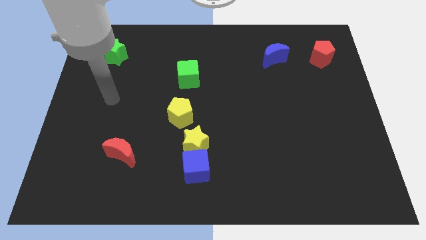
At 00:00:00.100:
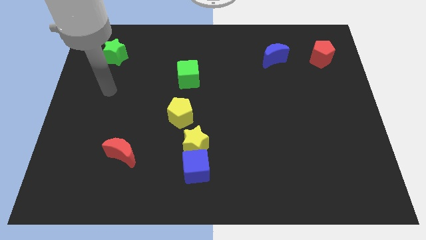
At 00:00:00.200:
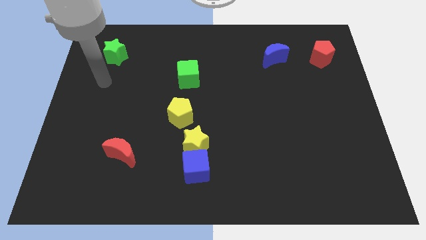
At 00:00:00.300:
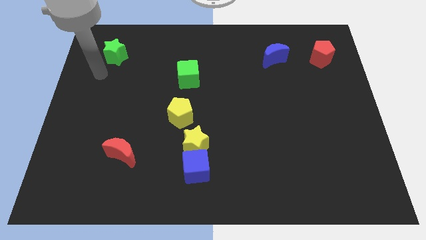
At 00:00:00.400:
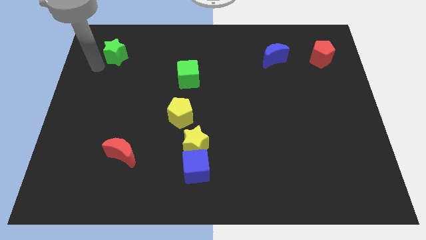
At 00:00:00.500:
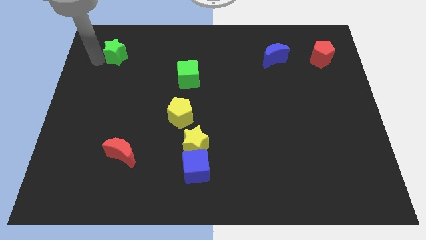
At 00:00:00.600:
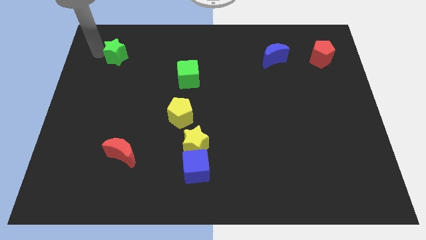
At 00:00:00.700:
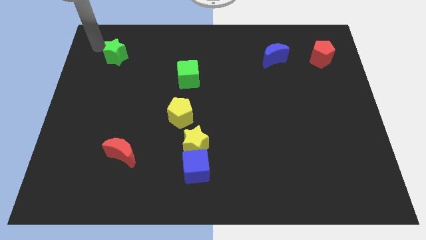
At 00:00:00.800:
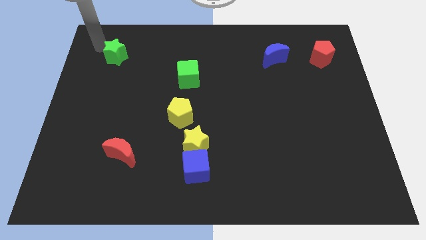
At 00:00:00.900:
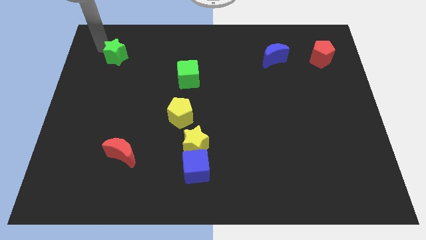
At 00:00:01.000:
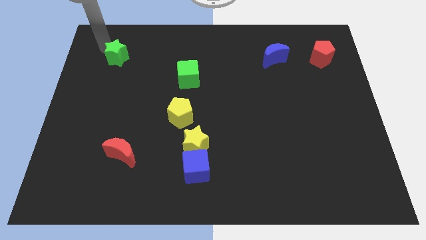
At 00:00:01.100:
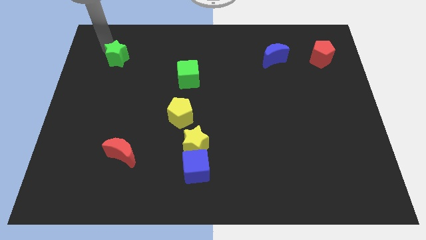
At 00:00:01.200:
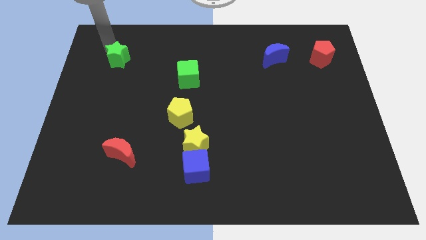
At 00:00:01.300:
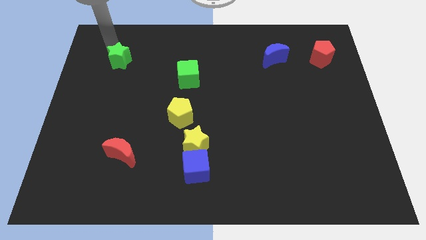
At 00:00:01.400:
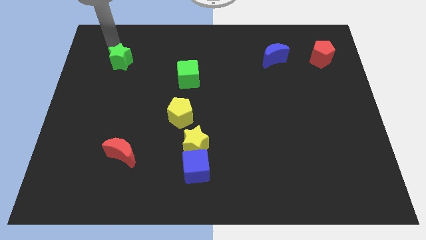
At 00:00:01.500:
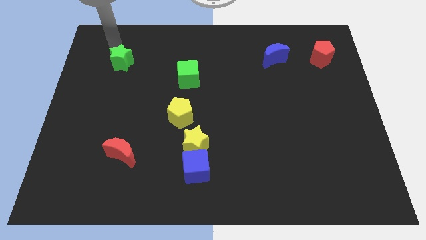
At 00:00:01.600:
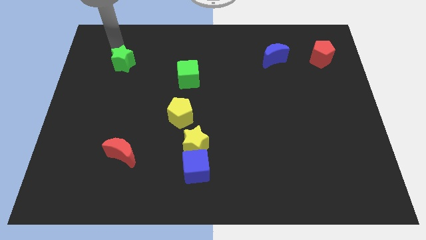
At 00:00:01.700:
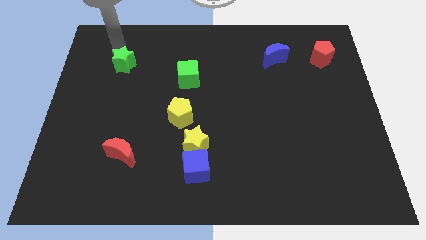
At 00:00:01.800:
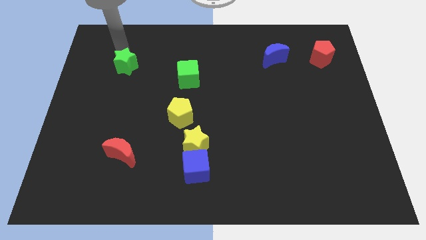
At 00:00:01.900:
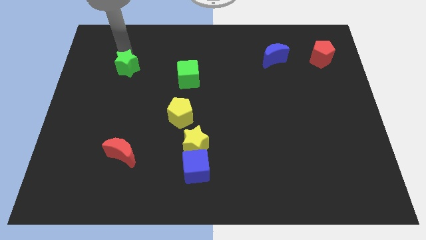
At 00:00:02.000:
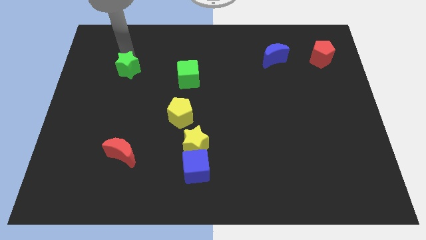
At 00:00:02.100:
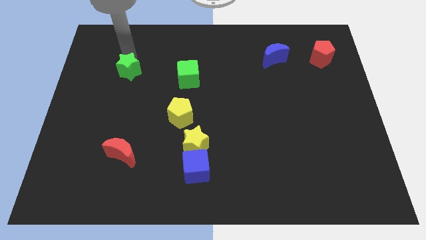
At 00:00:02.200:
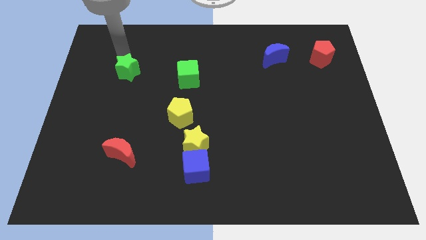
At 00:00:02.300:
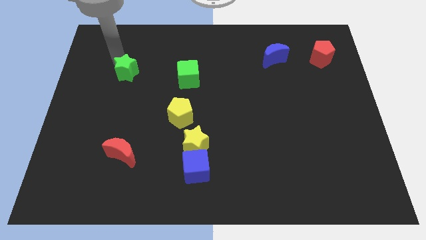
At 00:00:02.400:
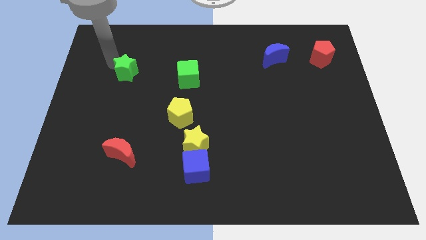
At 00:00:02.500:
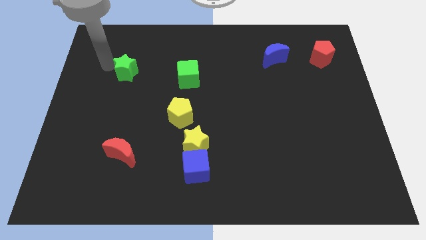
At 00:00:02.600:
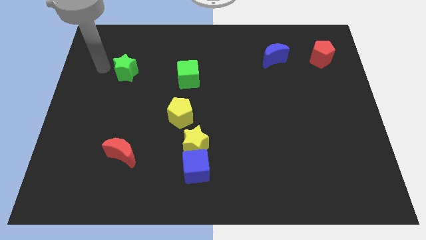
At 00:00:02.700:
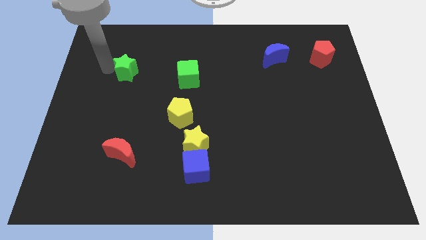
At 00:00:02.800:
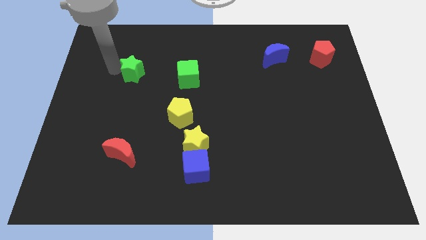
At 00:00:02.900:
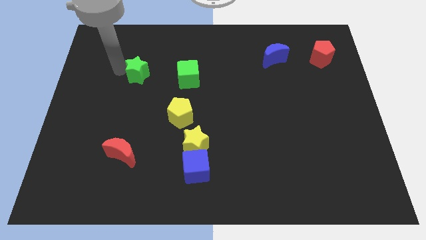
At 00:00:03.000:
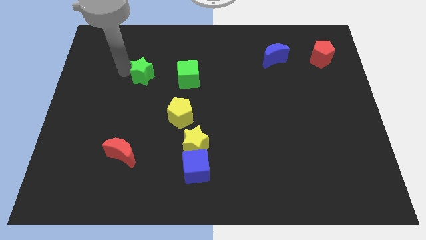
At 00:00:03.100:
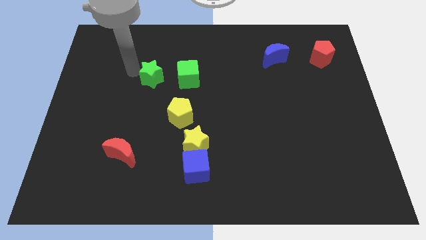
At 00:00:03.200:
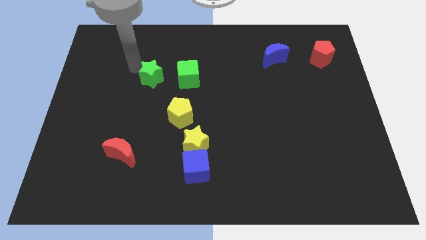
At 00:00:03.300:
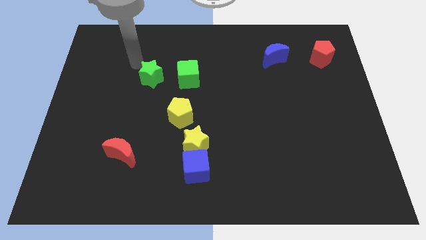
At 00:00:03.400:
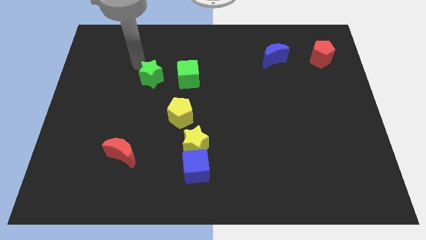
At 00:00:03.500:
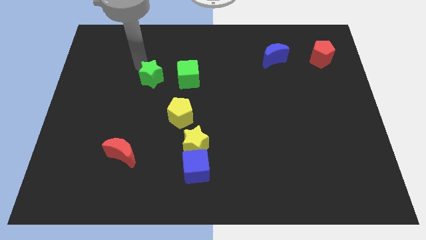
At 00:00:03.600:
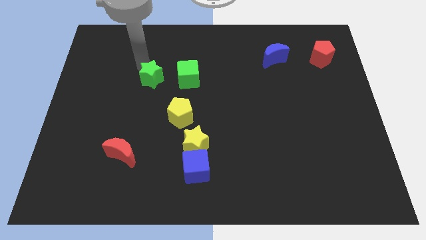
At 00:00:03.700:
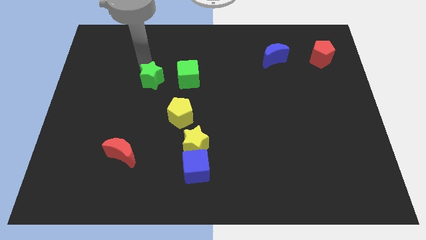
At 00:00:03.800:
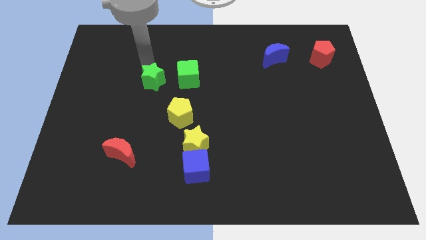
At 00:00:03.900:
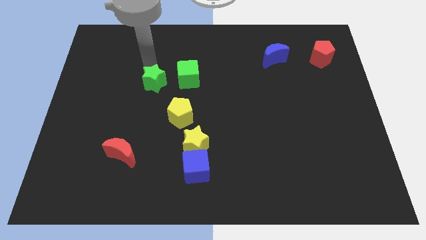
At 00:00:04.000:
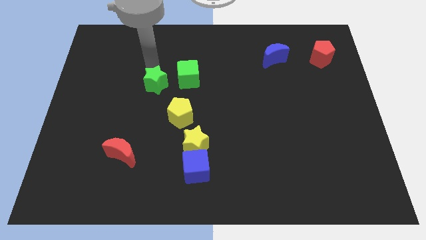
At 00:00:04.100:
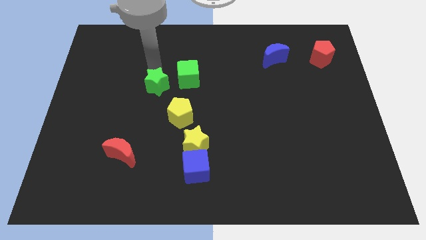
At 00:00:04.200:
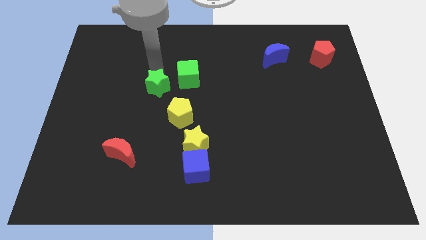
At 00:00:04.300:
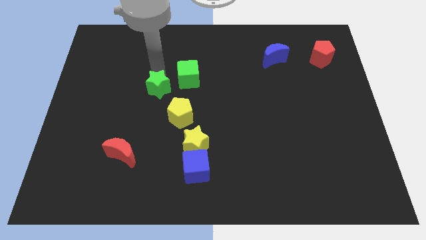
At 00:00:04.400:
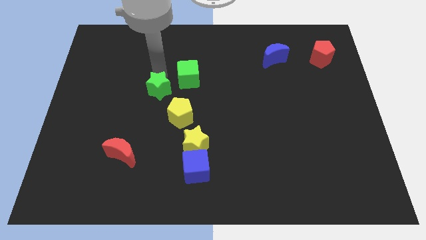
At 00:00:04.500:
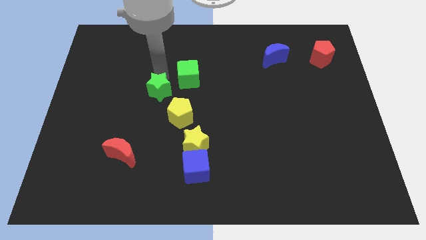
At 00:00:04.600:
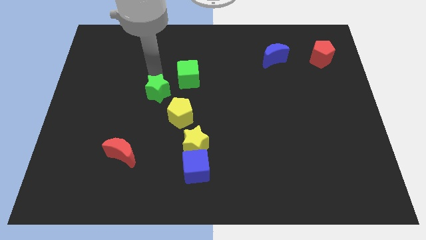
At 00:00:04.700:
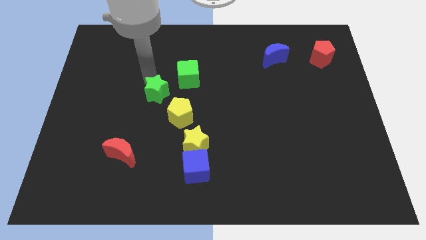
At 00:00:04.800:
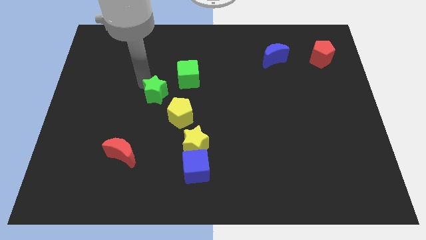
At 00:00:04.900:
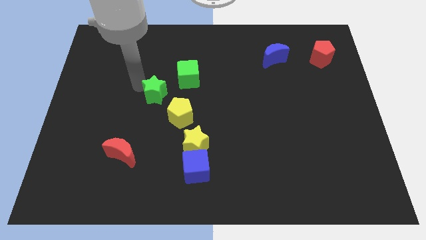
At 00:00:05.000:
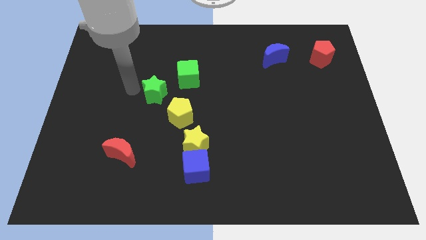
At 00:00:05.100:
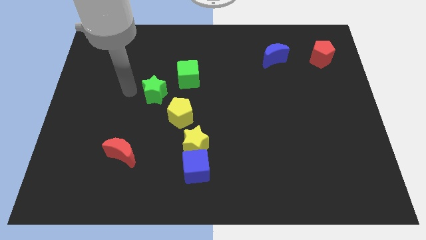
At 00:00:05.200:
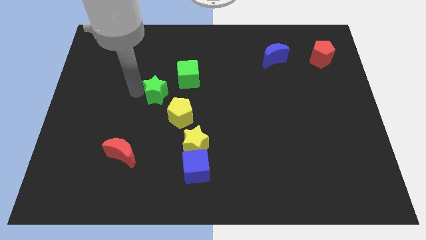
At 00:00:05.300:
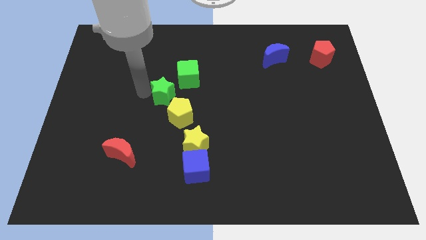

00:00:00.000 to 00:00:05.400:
push the green star to the middle

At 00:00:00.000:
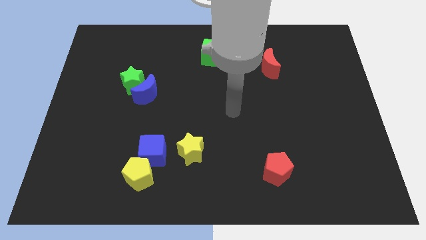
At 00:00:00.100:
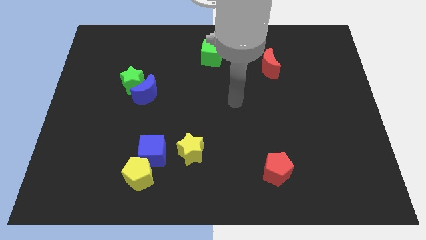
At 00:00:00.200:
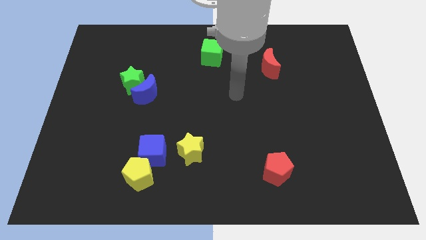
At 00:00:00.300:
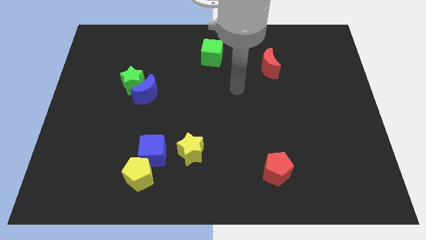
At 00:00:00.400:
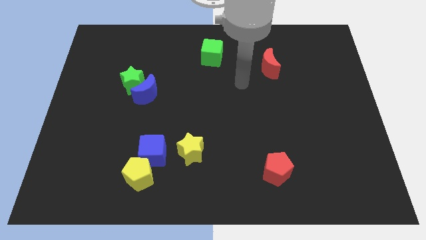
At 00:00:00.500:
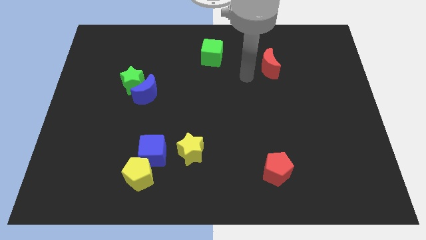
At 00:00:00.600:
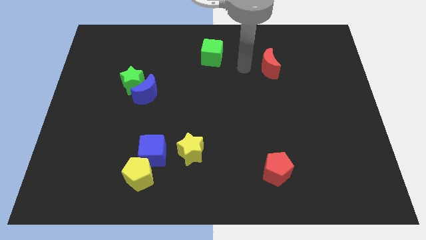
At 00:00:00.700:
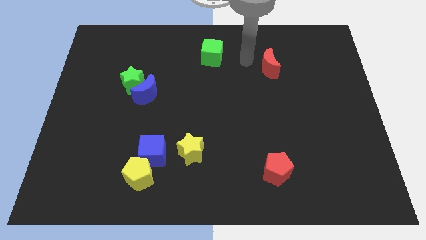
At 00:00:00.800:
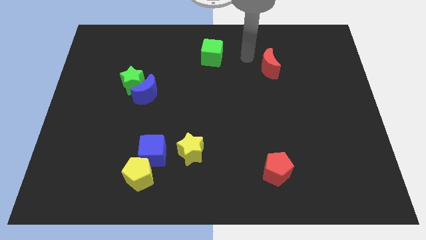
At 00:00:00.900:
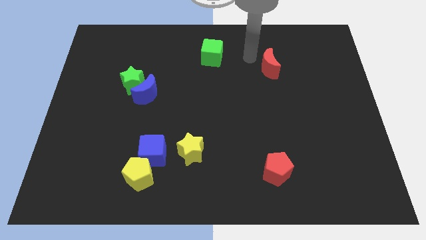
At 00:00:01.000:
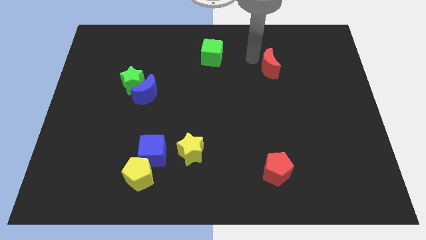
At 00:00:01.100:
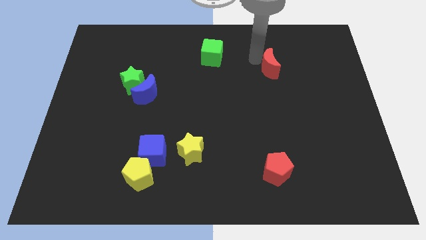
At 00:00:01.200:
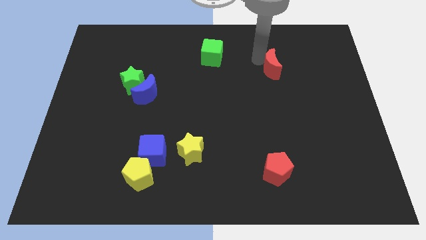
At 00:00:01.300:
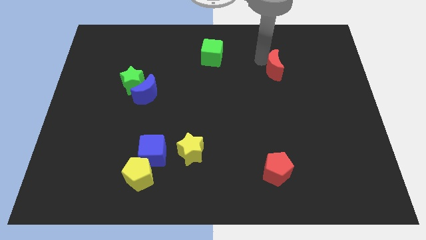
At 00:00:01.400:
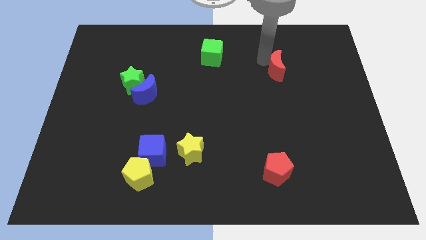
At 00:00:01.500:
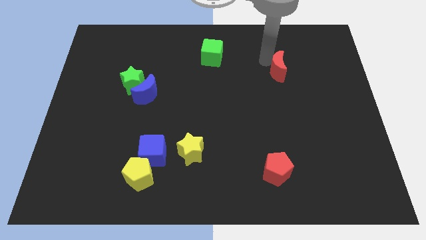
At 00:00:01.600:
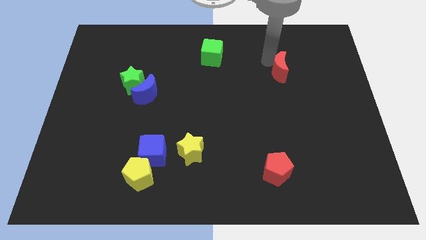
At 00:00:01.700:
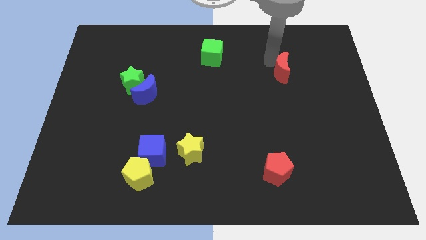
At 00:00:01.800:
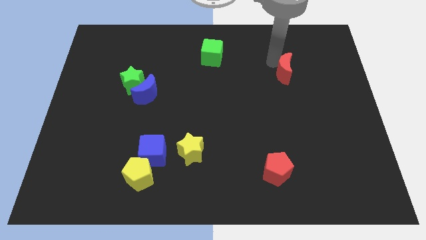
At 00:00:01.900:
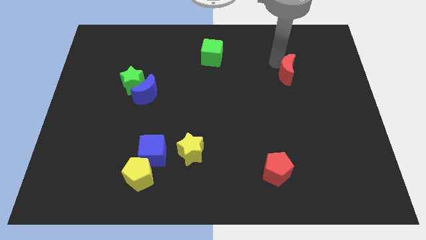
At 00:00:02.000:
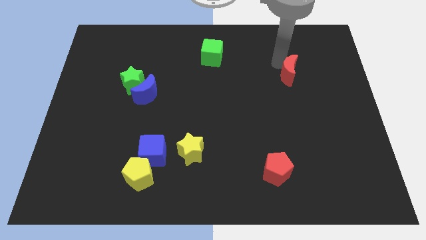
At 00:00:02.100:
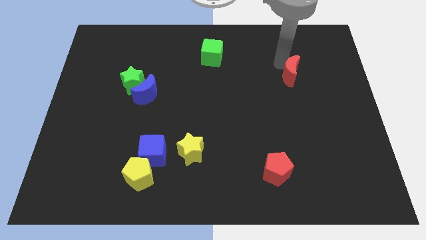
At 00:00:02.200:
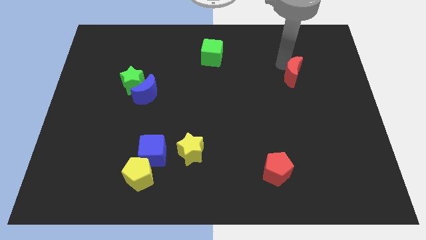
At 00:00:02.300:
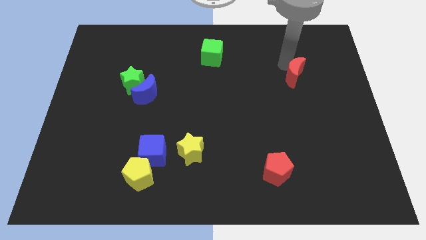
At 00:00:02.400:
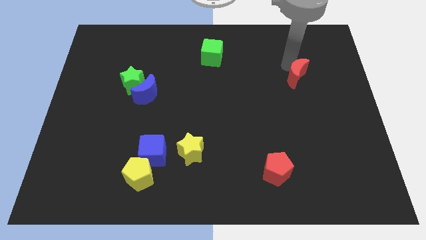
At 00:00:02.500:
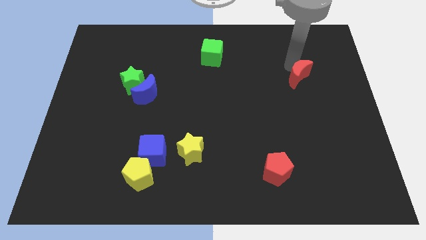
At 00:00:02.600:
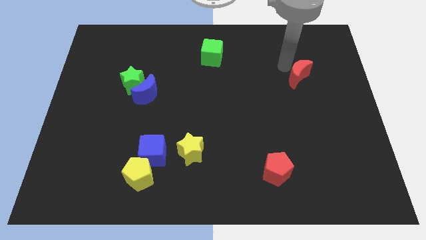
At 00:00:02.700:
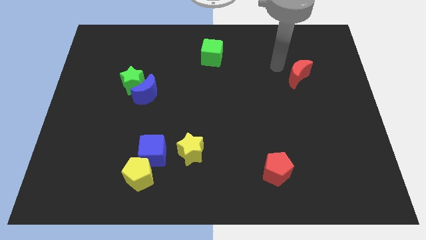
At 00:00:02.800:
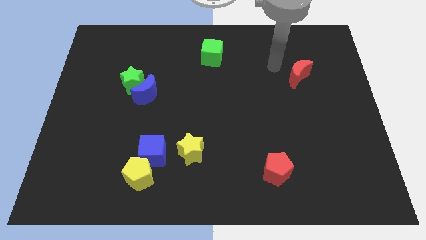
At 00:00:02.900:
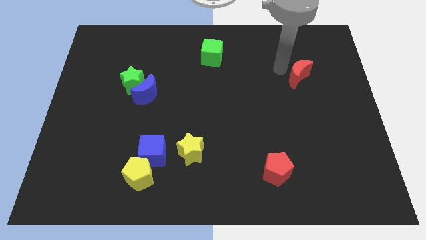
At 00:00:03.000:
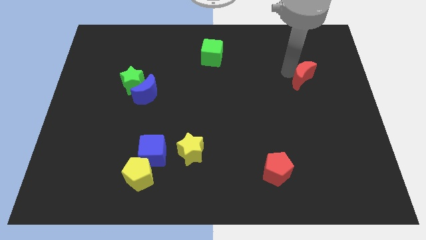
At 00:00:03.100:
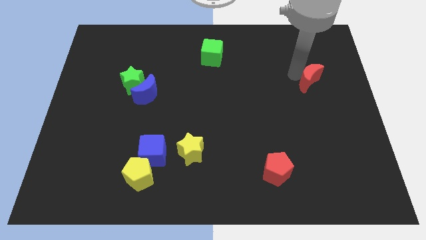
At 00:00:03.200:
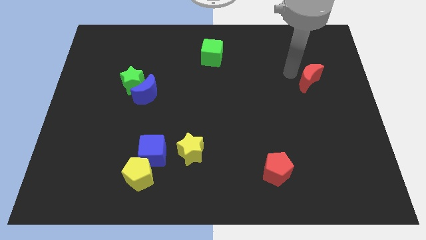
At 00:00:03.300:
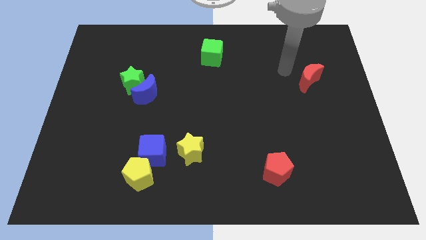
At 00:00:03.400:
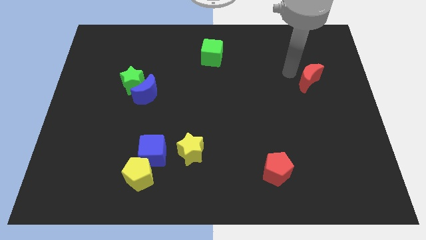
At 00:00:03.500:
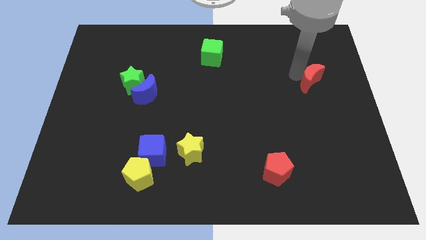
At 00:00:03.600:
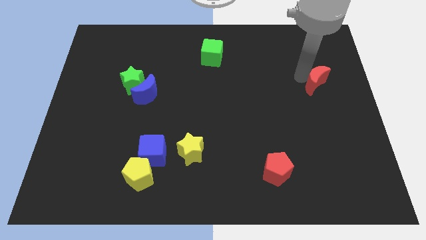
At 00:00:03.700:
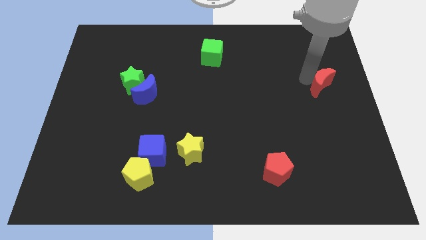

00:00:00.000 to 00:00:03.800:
push the red moon to the right side of the board
